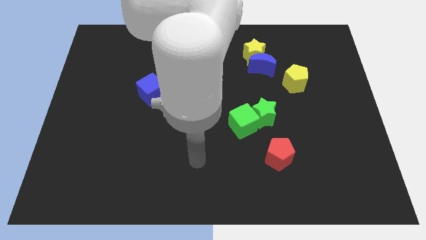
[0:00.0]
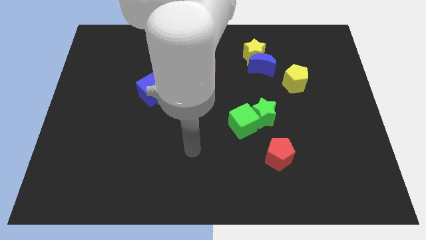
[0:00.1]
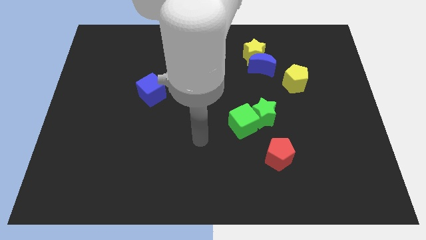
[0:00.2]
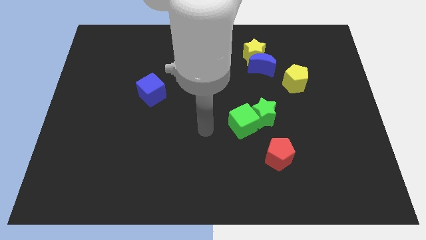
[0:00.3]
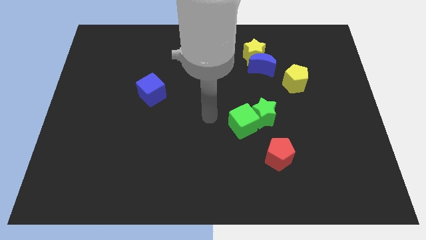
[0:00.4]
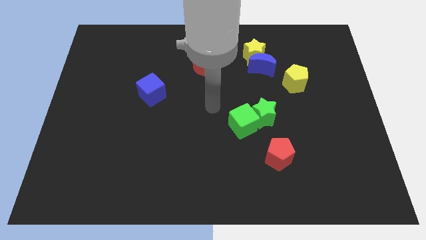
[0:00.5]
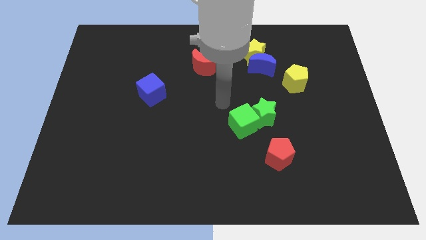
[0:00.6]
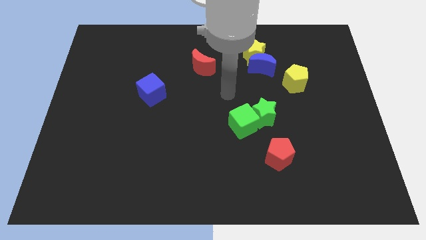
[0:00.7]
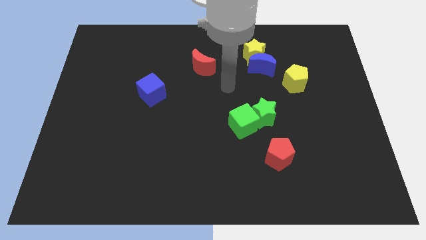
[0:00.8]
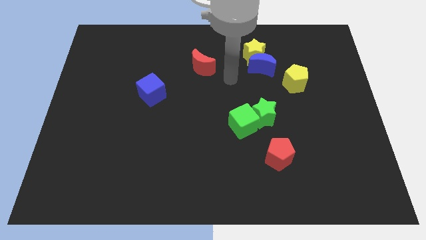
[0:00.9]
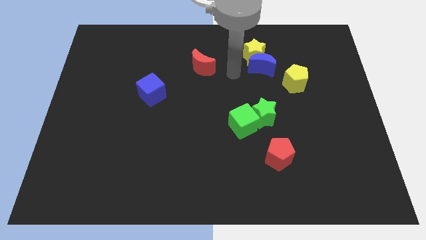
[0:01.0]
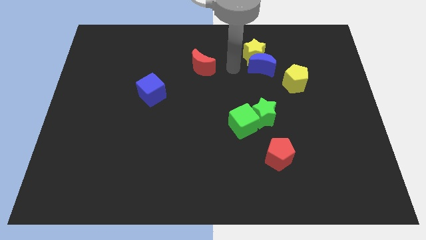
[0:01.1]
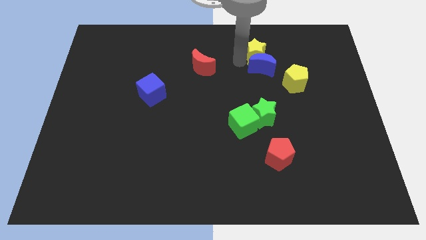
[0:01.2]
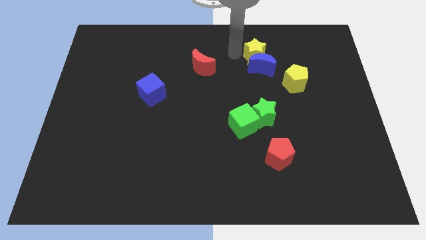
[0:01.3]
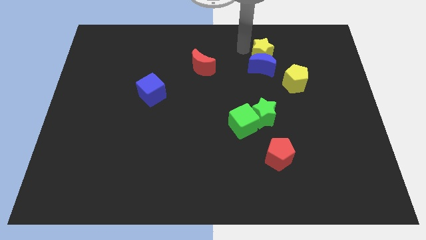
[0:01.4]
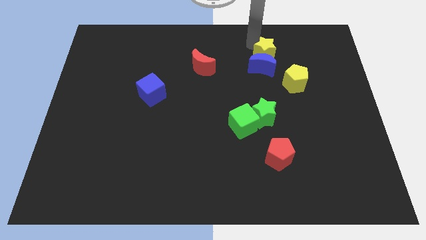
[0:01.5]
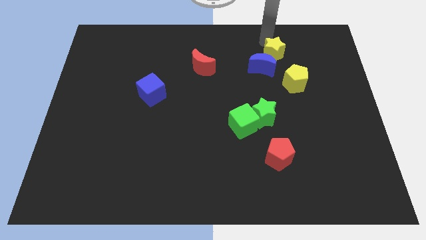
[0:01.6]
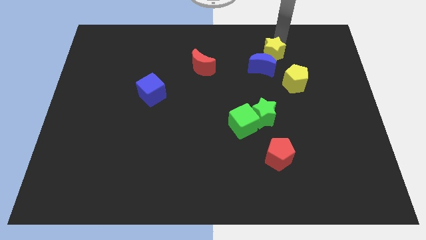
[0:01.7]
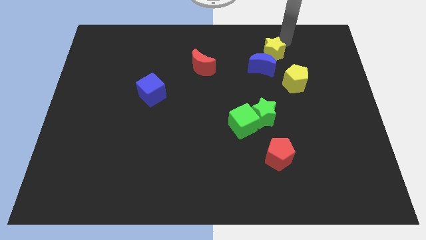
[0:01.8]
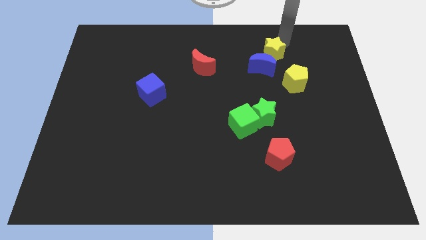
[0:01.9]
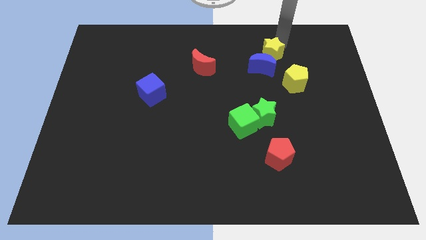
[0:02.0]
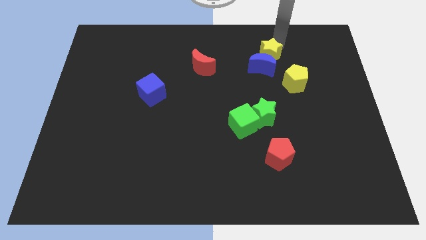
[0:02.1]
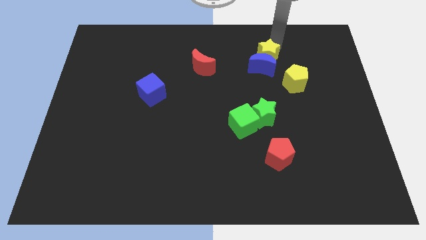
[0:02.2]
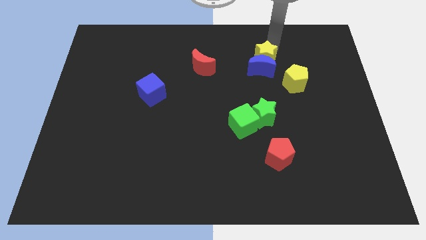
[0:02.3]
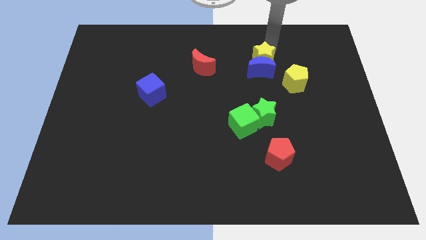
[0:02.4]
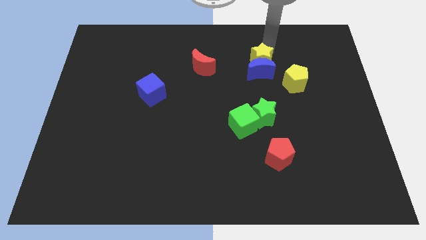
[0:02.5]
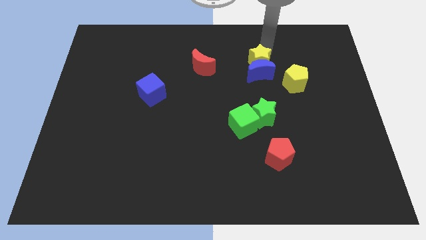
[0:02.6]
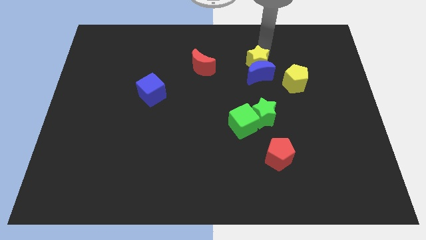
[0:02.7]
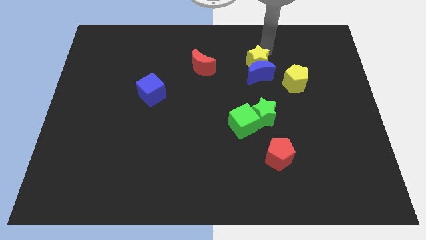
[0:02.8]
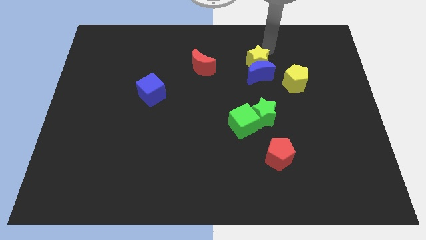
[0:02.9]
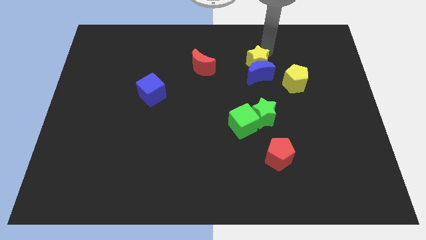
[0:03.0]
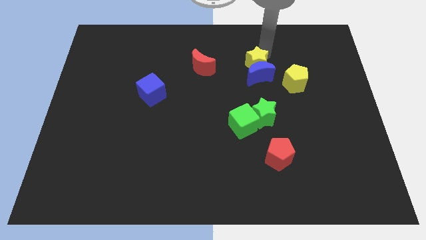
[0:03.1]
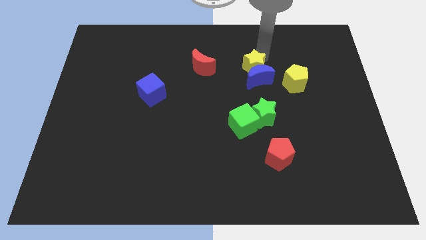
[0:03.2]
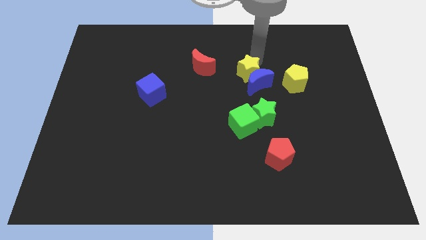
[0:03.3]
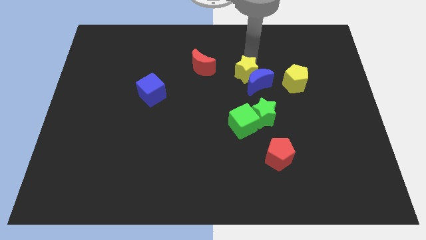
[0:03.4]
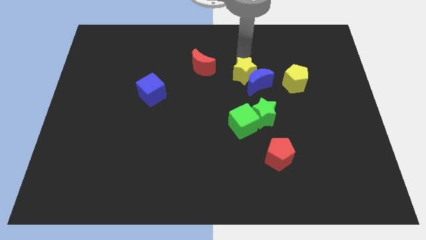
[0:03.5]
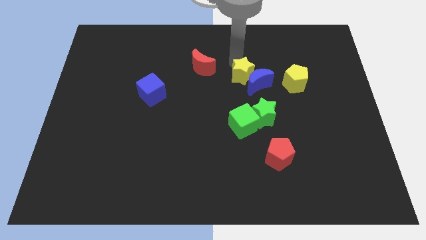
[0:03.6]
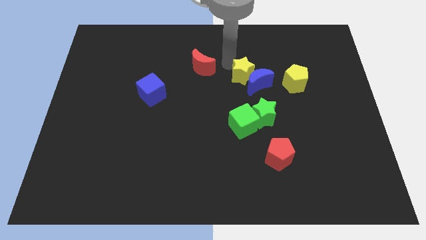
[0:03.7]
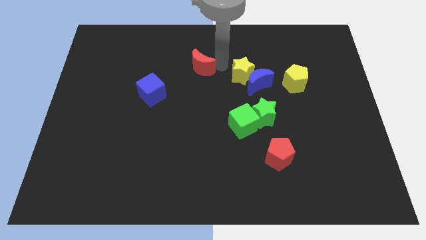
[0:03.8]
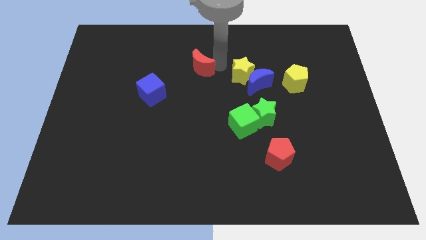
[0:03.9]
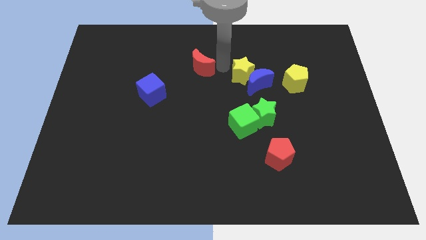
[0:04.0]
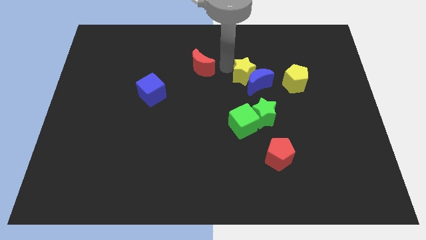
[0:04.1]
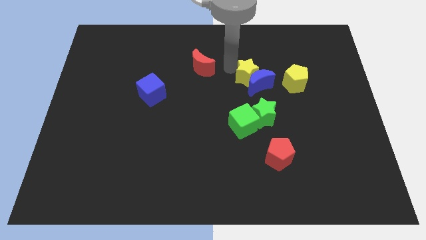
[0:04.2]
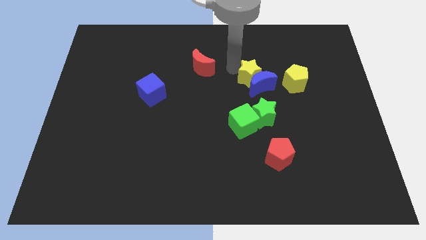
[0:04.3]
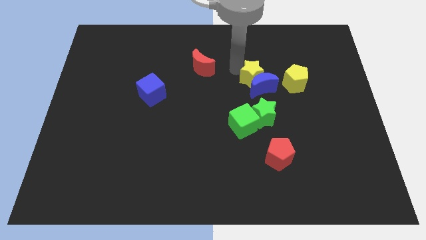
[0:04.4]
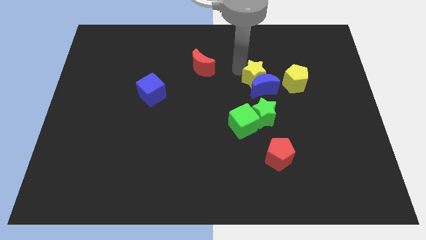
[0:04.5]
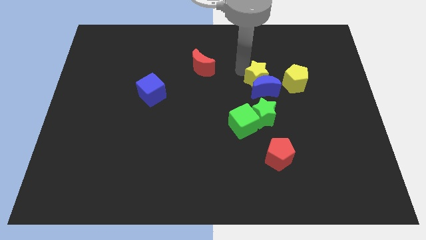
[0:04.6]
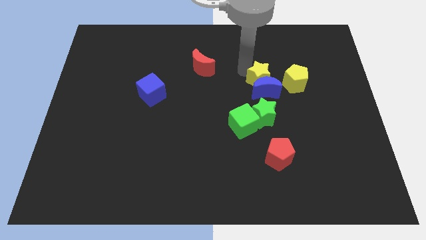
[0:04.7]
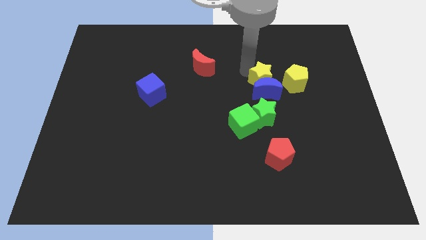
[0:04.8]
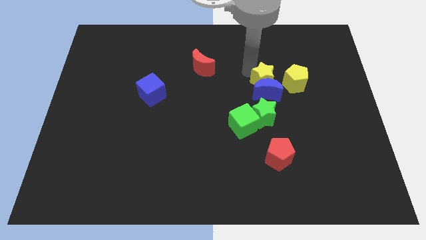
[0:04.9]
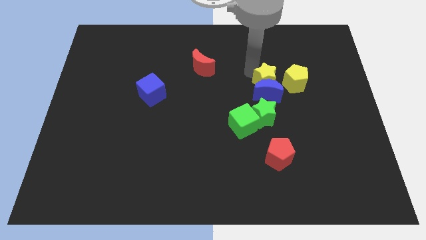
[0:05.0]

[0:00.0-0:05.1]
slightly move the yellow star downwards and to the right

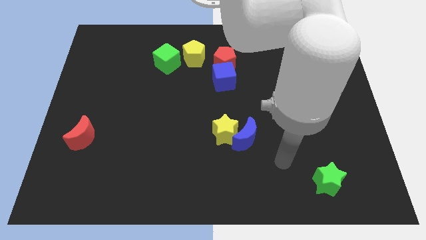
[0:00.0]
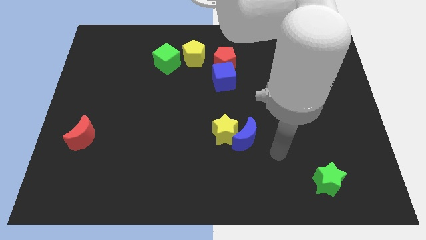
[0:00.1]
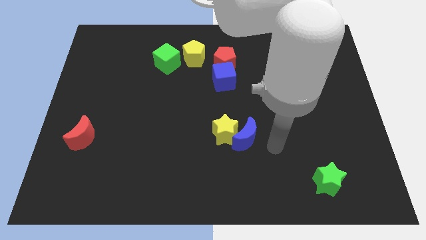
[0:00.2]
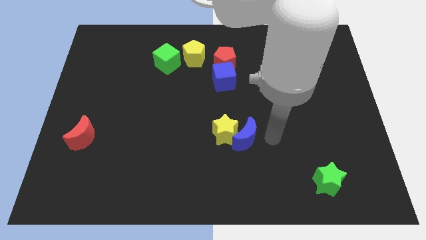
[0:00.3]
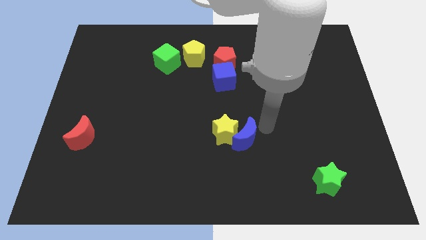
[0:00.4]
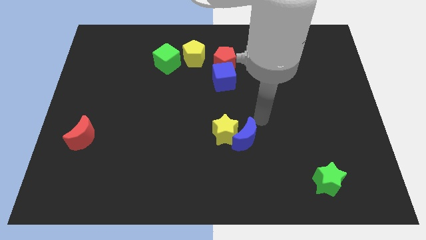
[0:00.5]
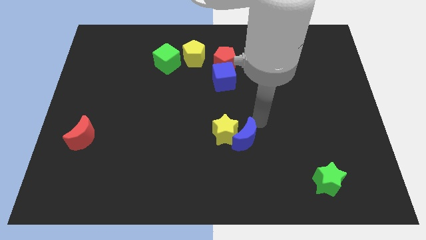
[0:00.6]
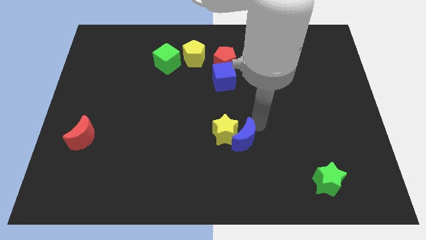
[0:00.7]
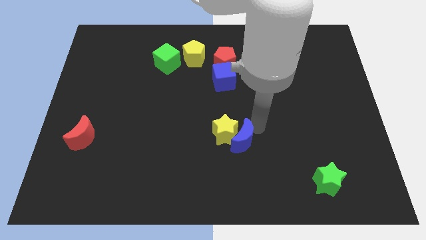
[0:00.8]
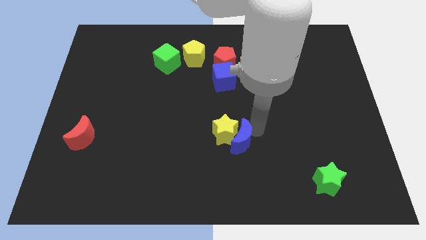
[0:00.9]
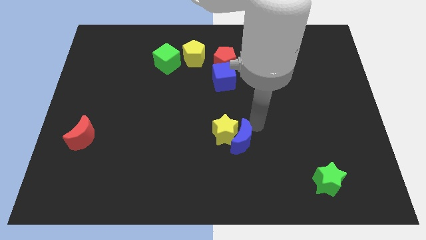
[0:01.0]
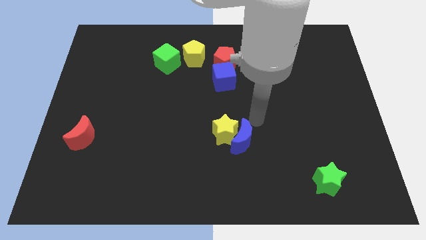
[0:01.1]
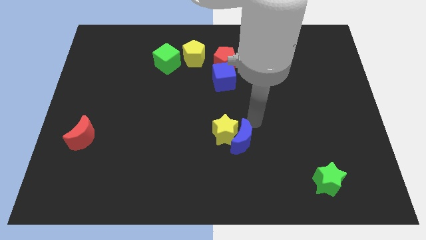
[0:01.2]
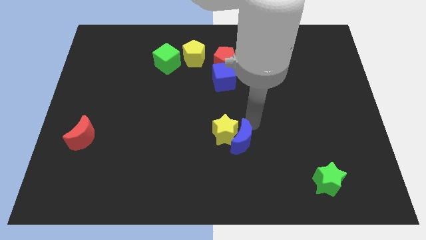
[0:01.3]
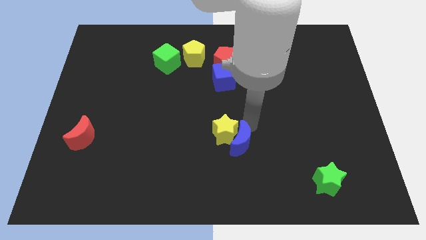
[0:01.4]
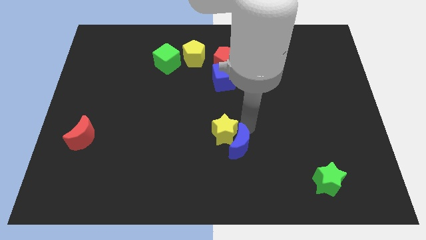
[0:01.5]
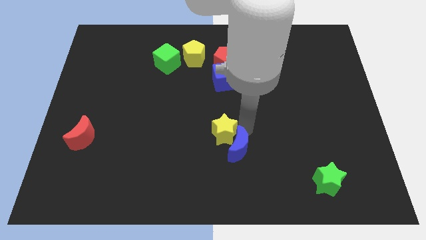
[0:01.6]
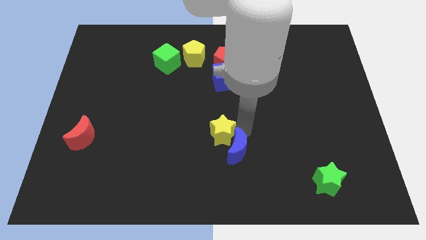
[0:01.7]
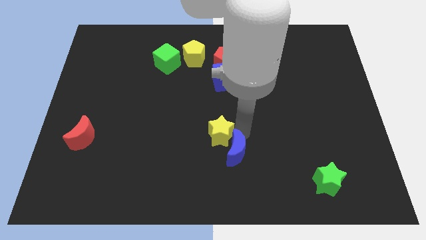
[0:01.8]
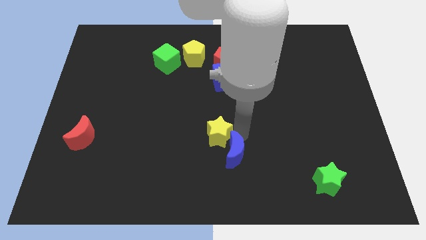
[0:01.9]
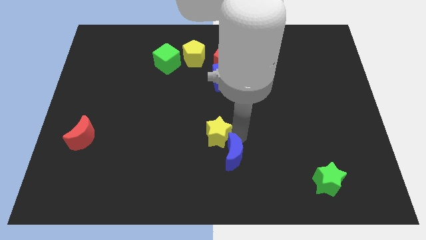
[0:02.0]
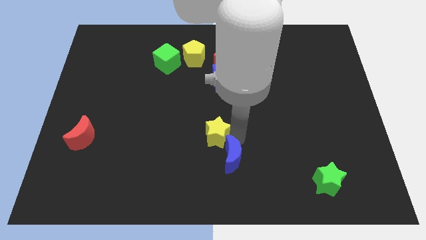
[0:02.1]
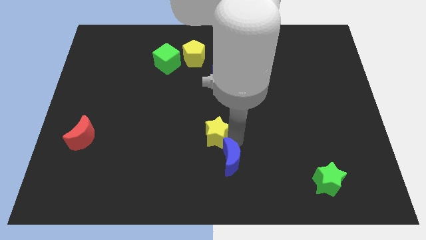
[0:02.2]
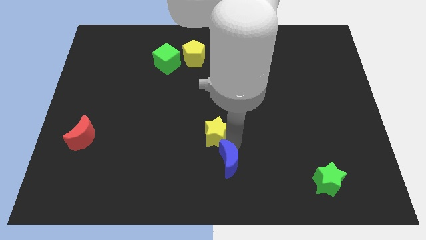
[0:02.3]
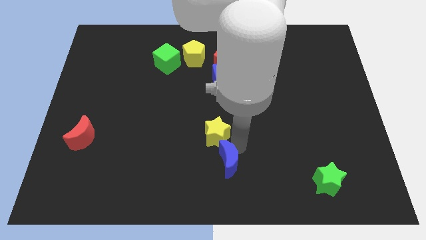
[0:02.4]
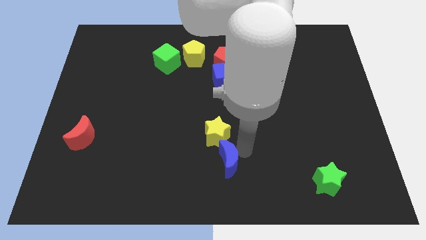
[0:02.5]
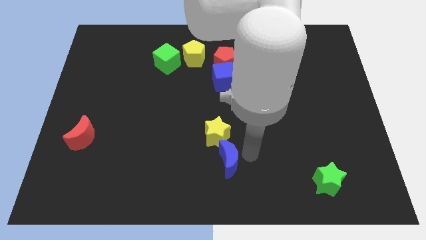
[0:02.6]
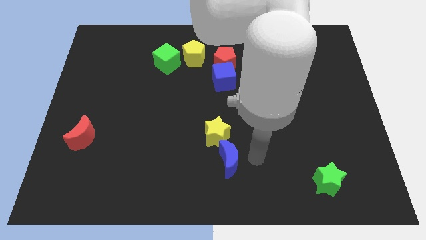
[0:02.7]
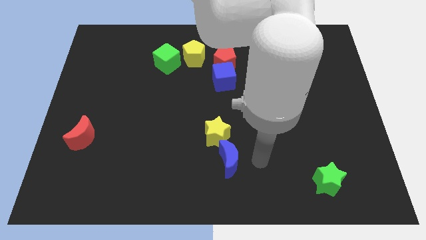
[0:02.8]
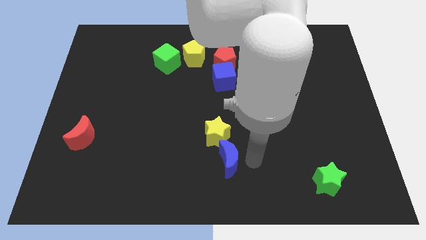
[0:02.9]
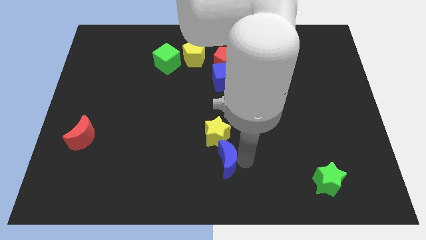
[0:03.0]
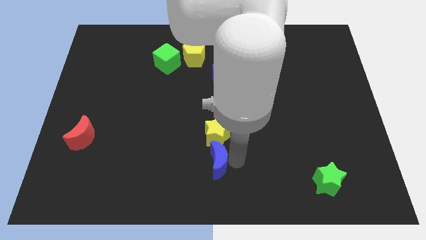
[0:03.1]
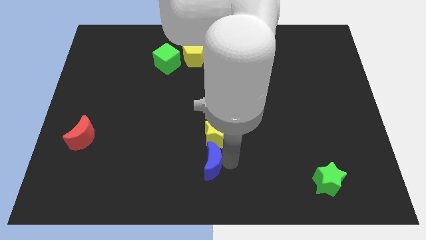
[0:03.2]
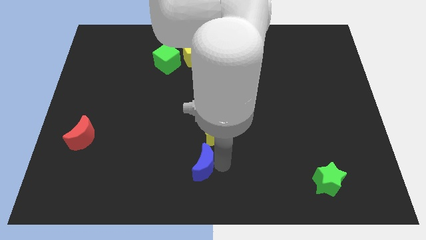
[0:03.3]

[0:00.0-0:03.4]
slightly push the blue moon left
